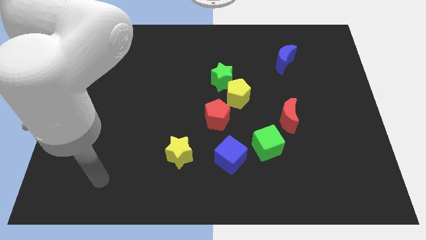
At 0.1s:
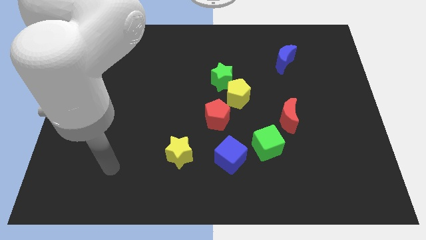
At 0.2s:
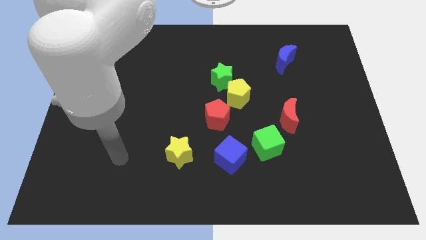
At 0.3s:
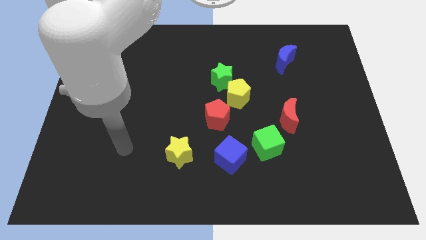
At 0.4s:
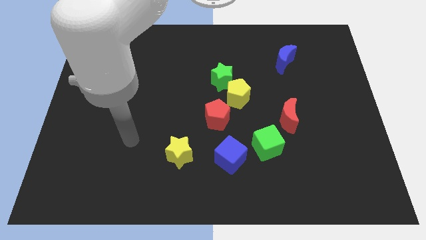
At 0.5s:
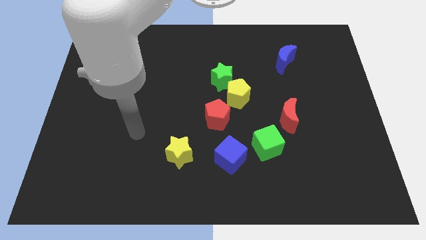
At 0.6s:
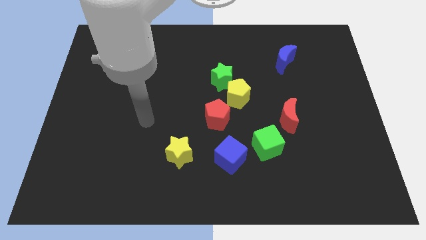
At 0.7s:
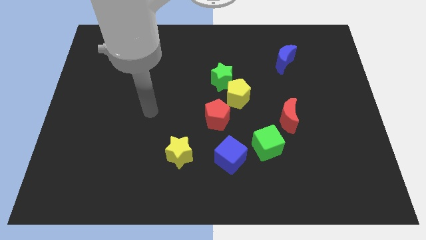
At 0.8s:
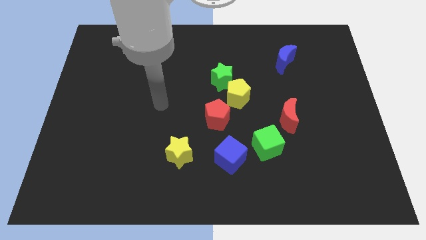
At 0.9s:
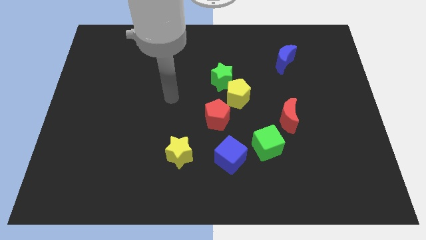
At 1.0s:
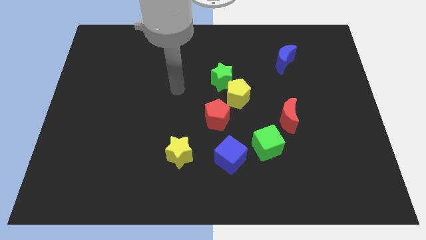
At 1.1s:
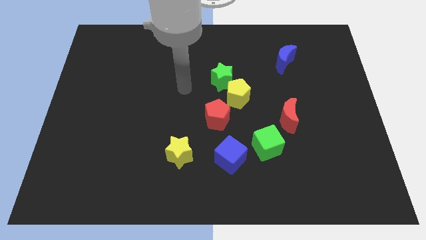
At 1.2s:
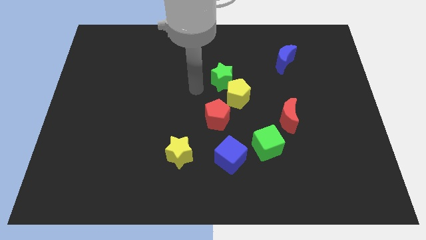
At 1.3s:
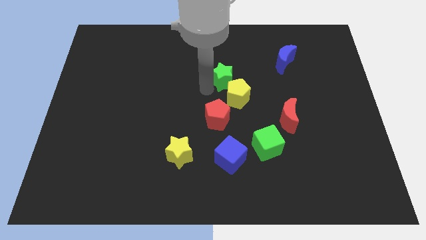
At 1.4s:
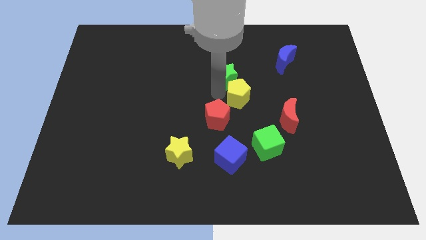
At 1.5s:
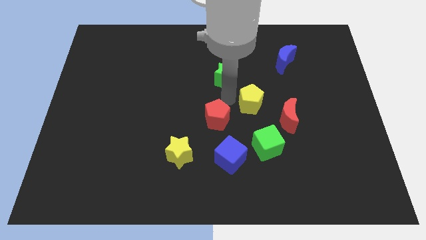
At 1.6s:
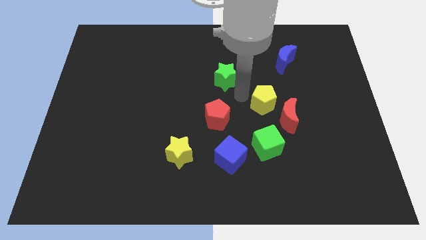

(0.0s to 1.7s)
move the green star away from the yellow pentagon

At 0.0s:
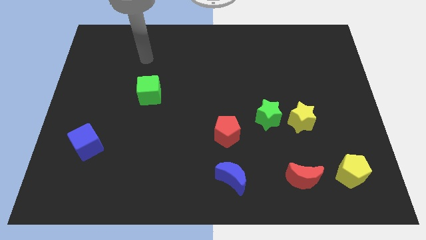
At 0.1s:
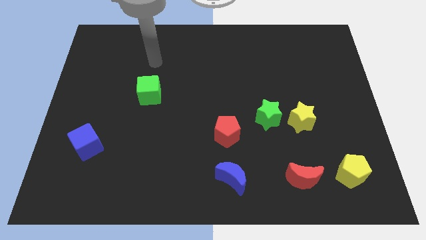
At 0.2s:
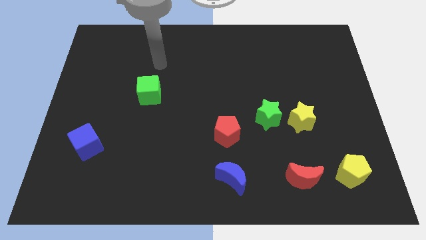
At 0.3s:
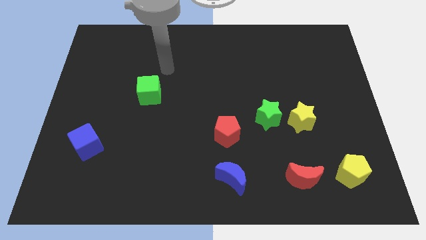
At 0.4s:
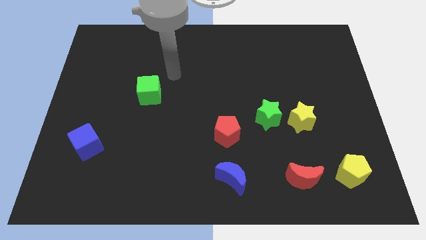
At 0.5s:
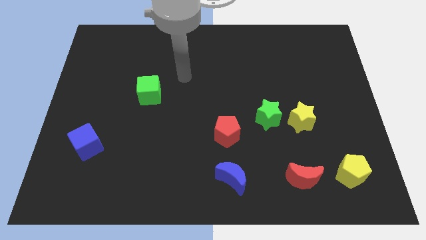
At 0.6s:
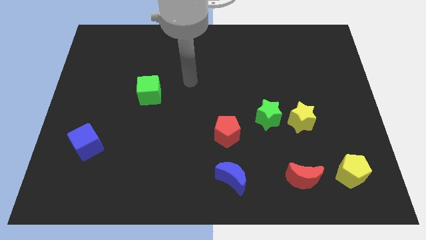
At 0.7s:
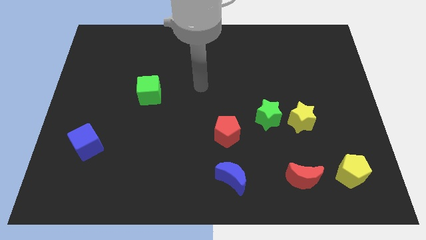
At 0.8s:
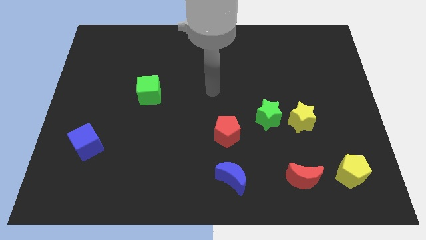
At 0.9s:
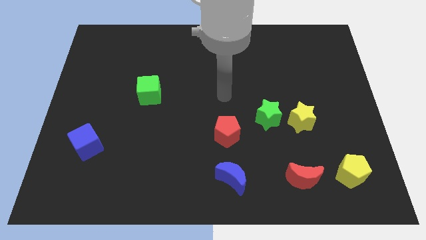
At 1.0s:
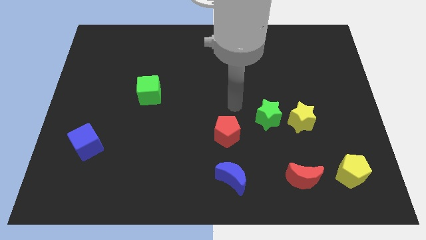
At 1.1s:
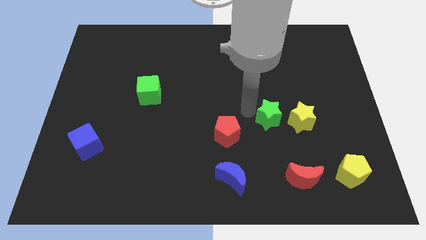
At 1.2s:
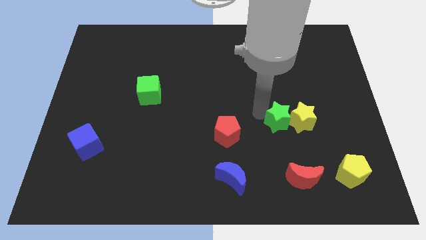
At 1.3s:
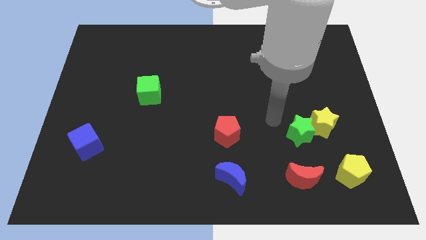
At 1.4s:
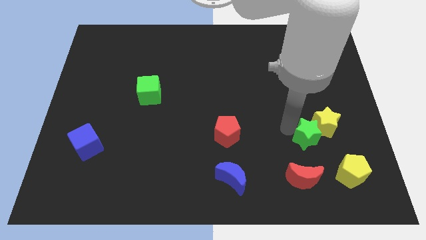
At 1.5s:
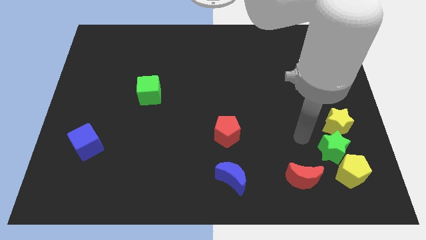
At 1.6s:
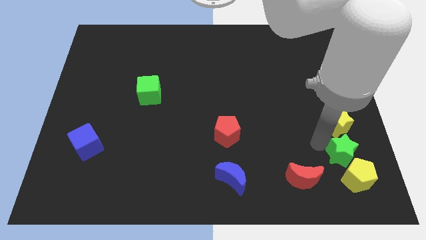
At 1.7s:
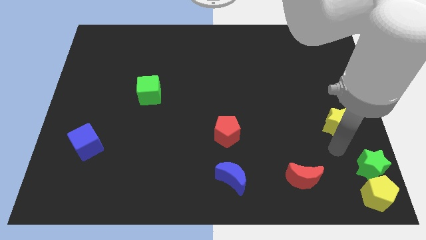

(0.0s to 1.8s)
separate the yellow star from the green star

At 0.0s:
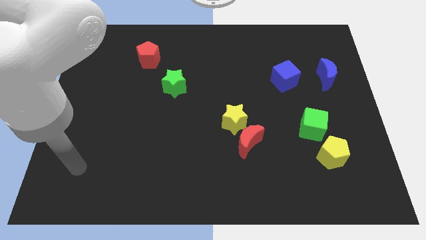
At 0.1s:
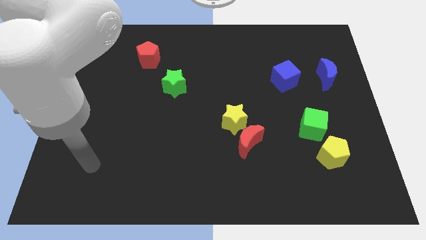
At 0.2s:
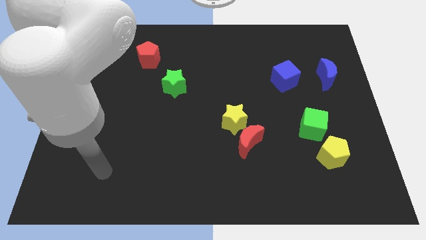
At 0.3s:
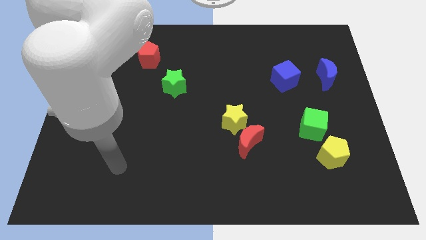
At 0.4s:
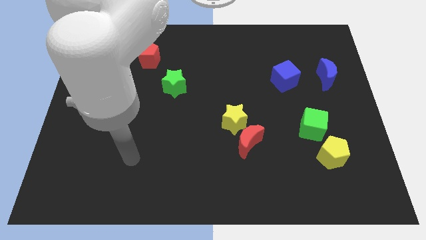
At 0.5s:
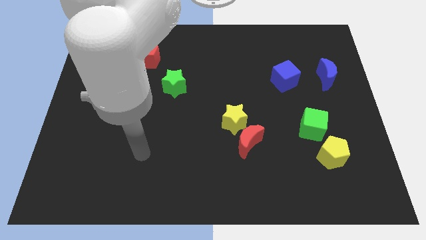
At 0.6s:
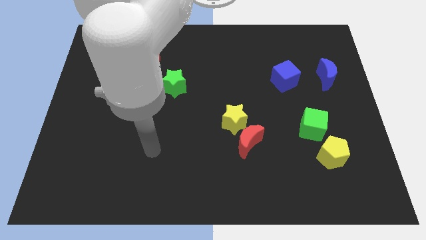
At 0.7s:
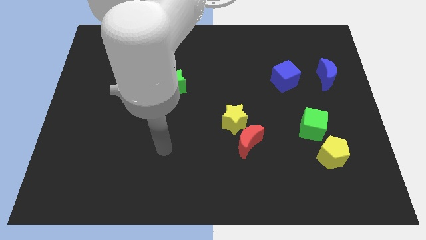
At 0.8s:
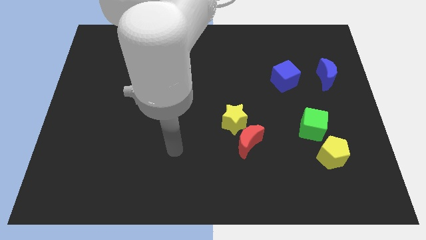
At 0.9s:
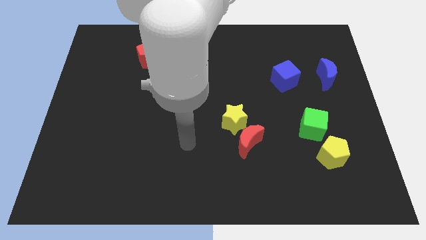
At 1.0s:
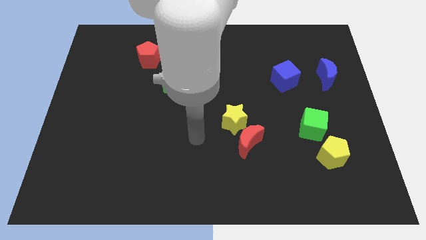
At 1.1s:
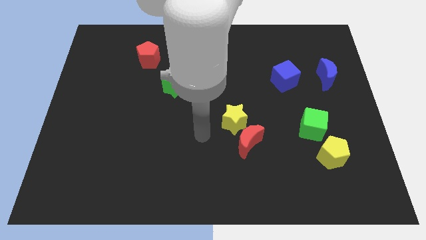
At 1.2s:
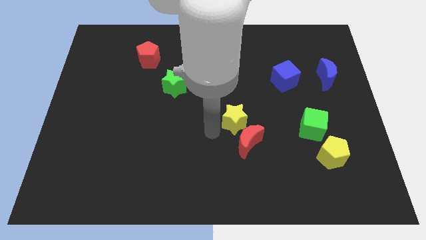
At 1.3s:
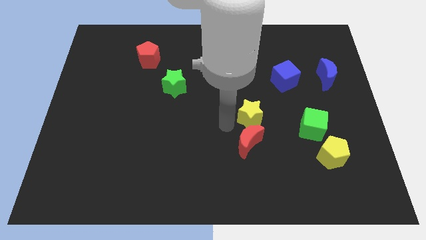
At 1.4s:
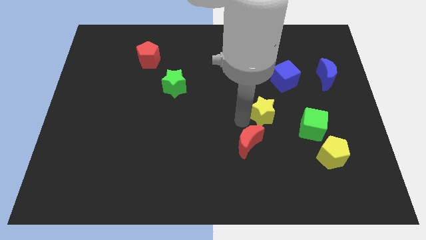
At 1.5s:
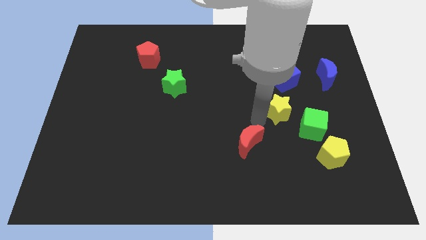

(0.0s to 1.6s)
separate the red moon from the yellow star

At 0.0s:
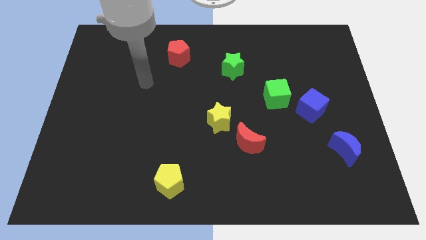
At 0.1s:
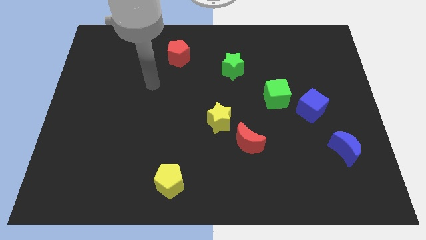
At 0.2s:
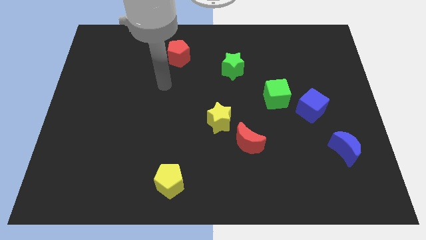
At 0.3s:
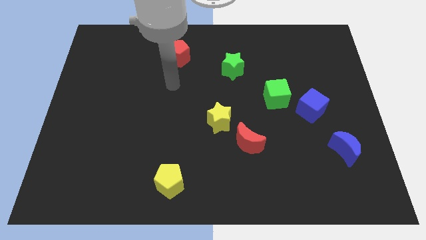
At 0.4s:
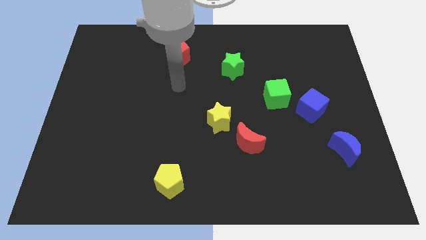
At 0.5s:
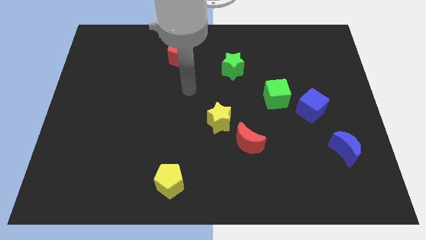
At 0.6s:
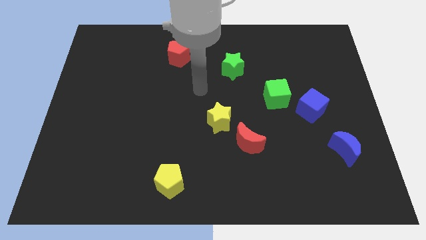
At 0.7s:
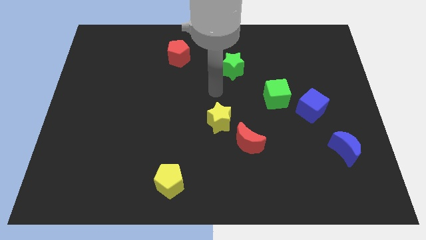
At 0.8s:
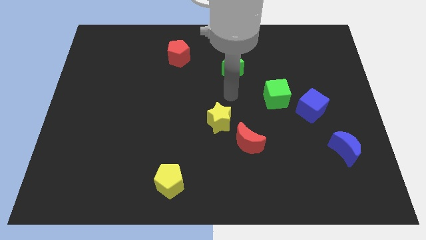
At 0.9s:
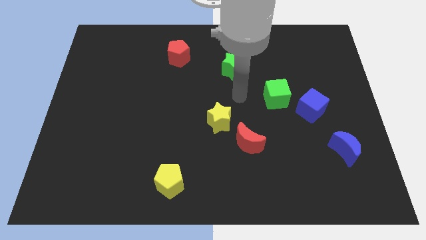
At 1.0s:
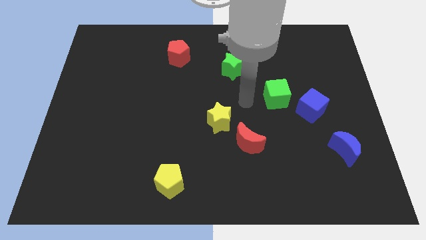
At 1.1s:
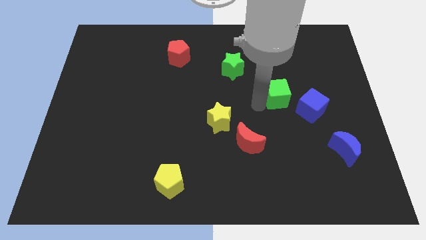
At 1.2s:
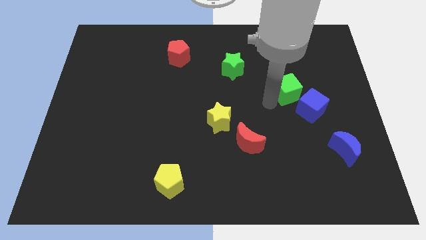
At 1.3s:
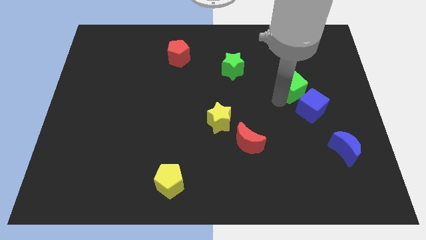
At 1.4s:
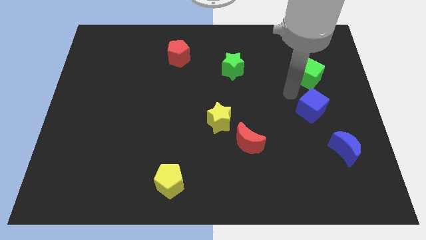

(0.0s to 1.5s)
move the blue cube away from the green cube

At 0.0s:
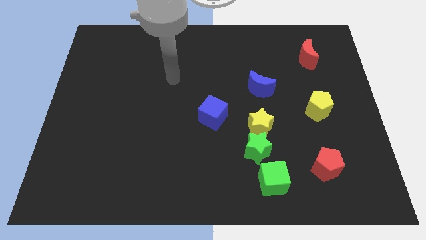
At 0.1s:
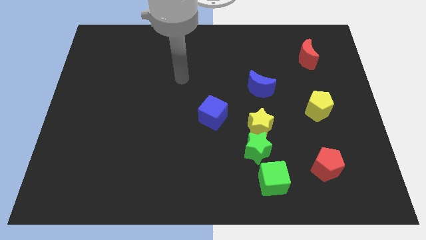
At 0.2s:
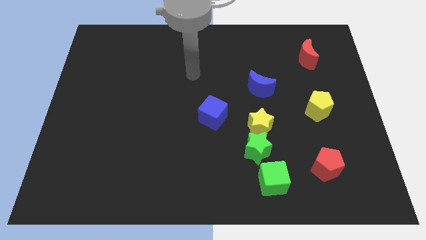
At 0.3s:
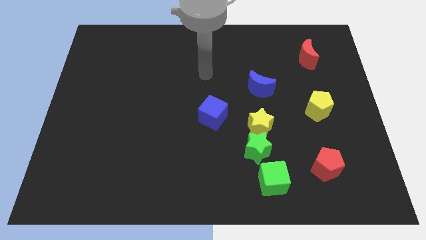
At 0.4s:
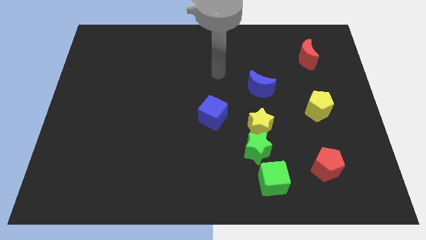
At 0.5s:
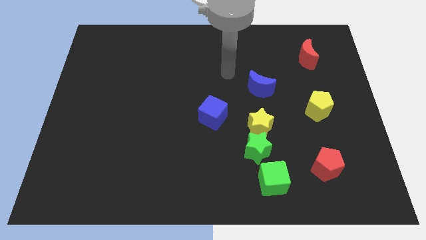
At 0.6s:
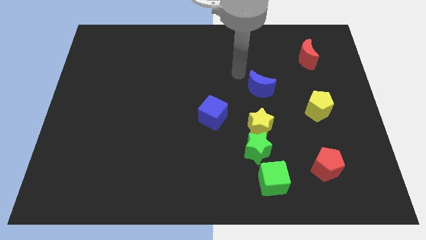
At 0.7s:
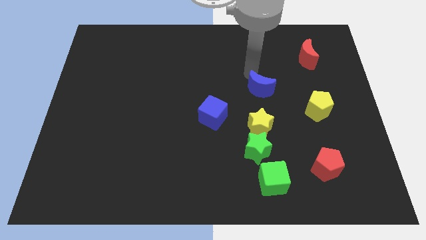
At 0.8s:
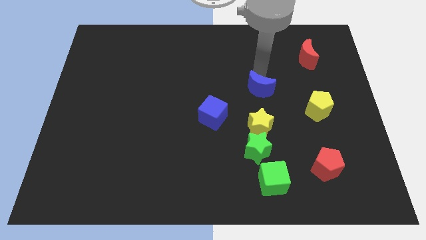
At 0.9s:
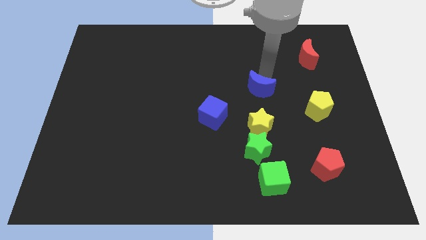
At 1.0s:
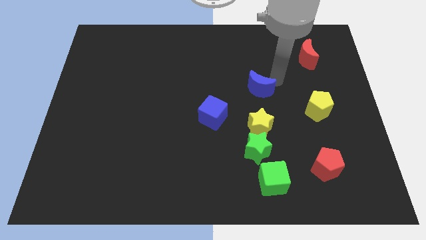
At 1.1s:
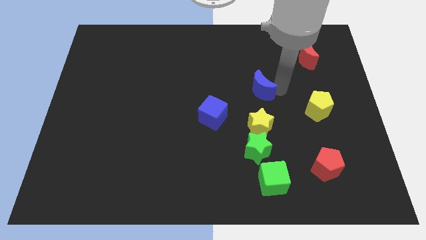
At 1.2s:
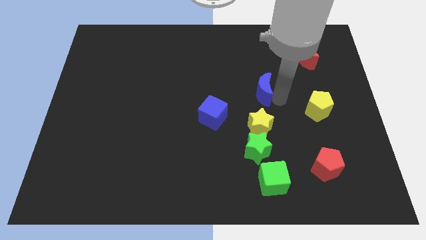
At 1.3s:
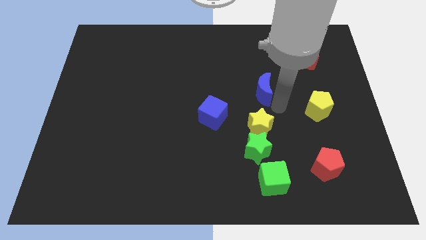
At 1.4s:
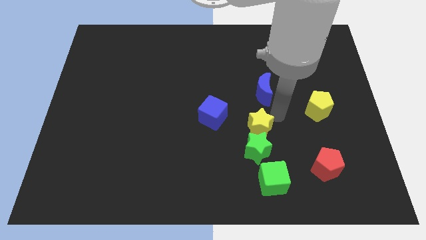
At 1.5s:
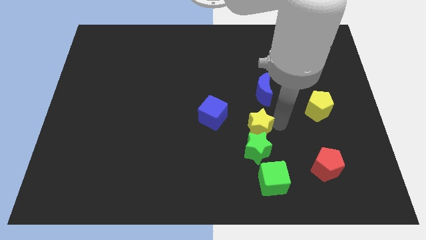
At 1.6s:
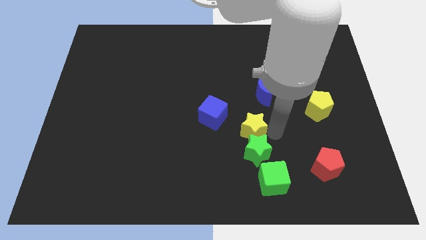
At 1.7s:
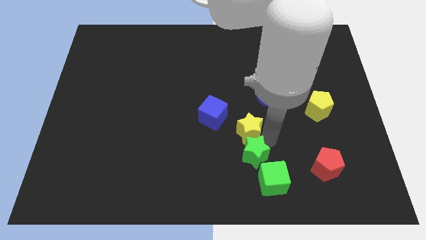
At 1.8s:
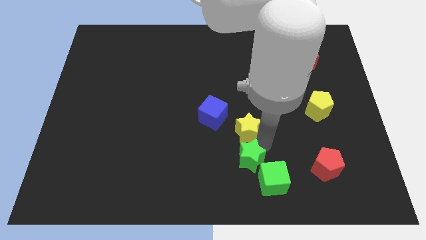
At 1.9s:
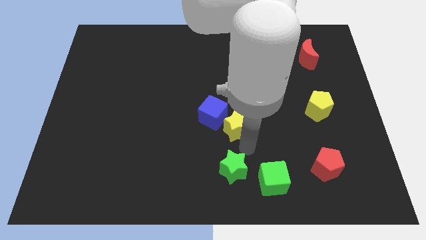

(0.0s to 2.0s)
pull the yellow star apart from the green star

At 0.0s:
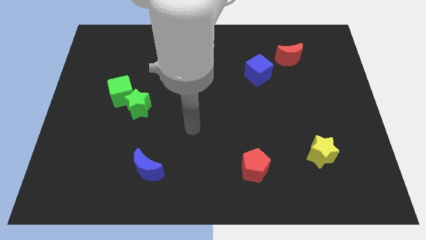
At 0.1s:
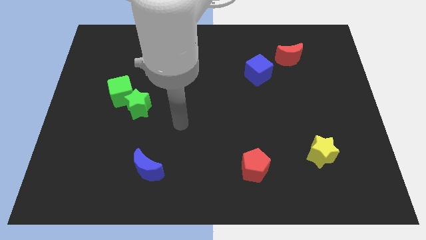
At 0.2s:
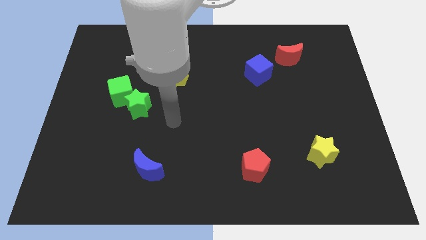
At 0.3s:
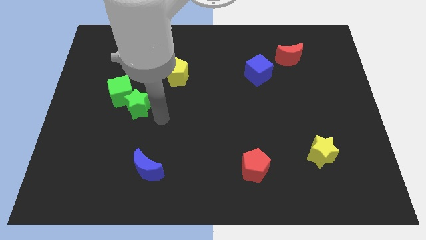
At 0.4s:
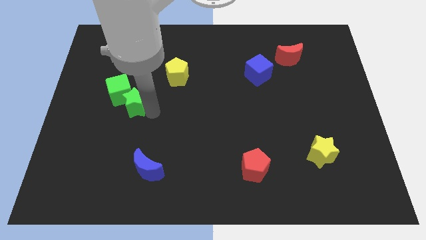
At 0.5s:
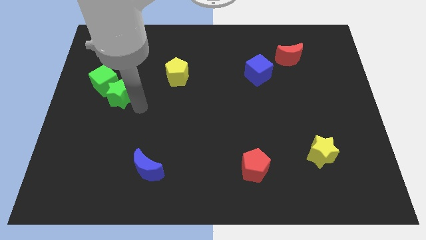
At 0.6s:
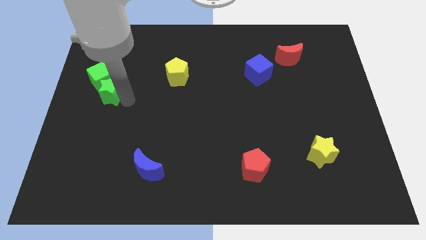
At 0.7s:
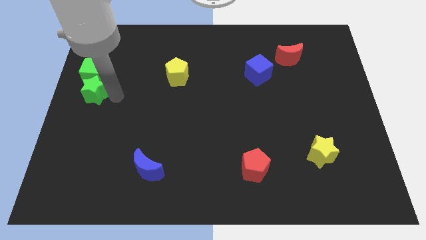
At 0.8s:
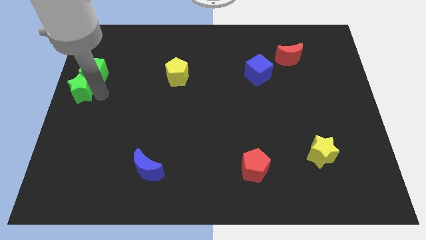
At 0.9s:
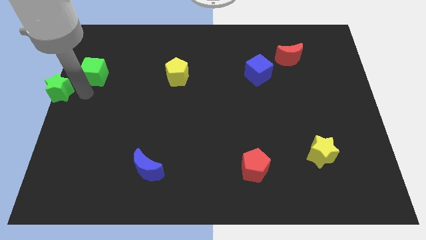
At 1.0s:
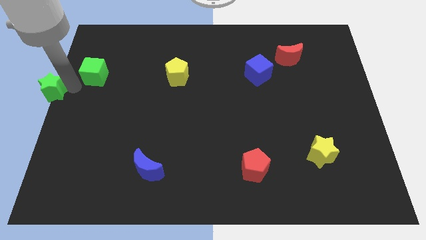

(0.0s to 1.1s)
separate the green cube from the green star
